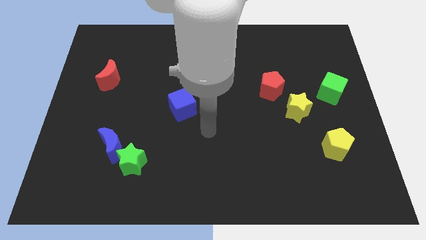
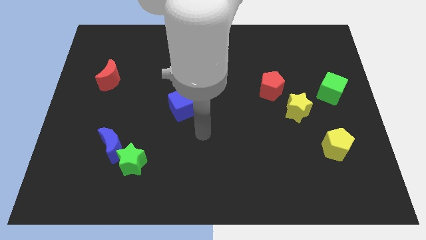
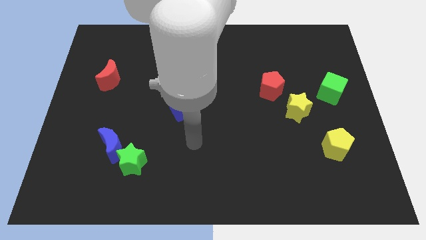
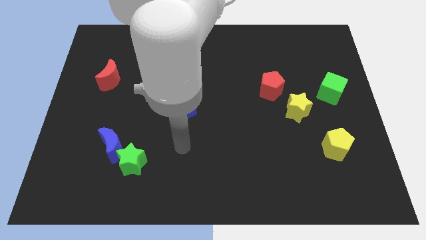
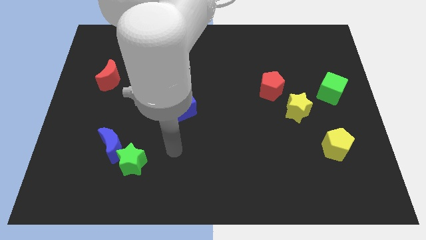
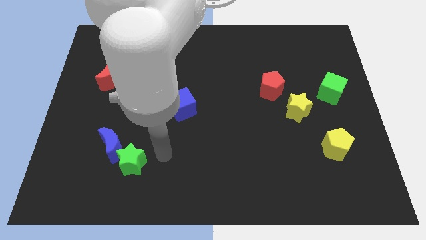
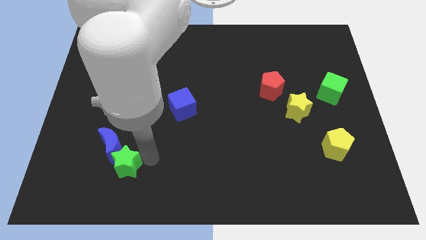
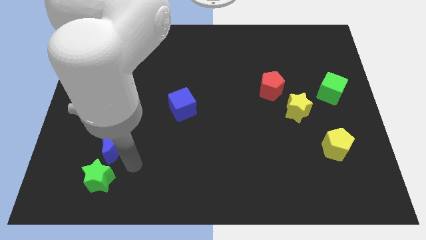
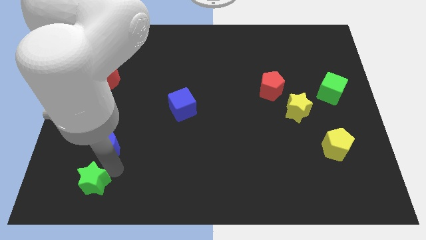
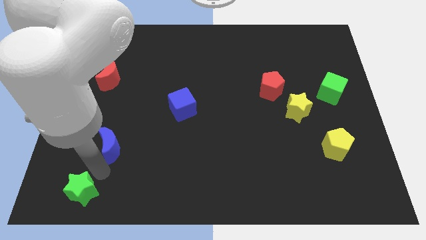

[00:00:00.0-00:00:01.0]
pull the blue moon apart from the green star

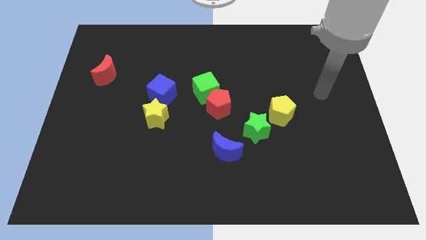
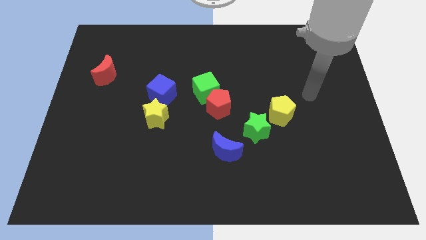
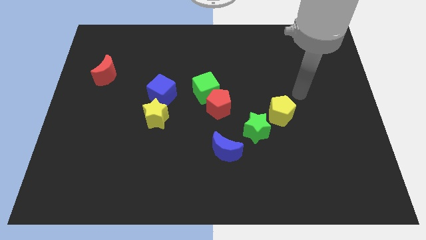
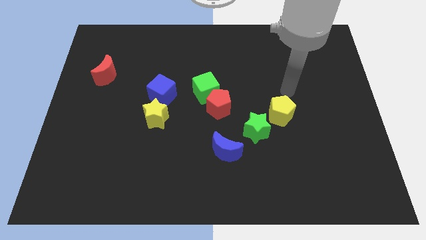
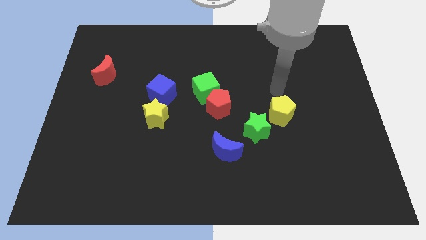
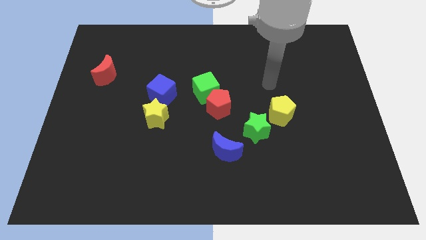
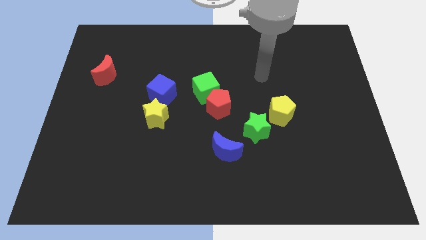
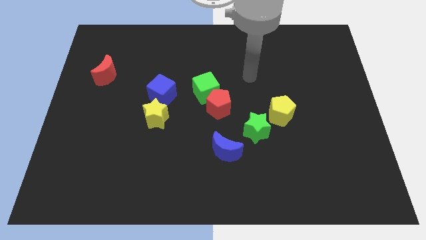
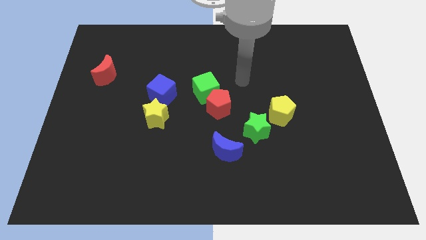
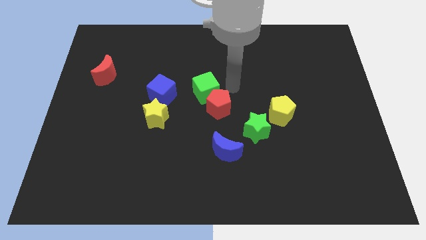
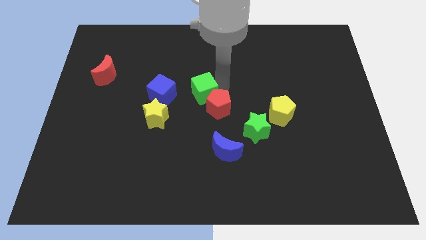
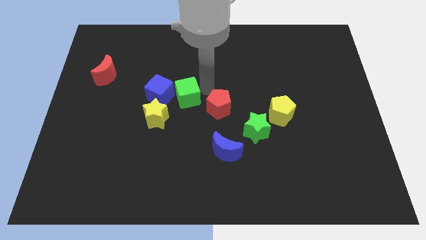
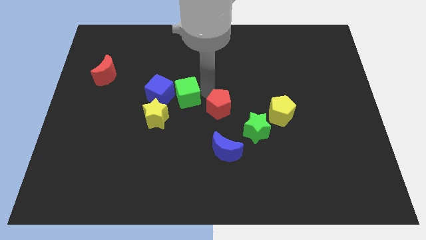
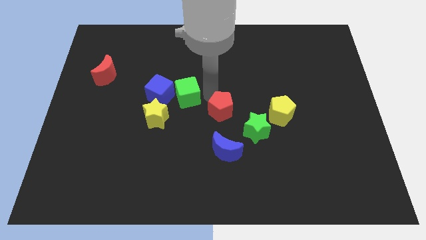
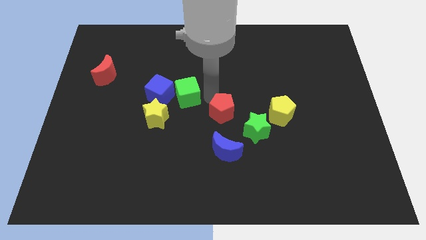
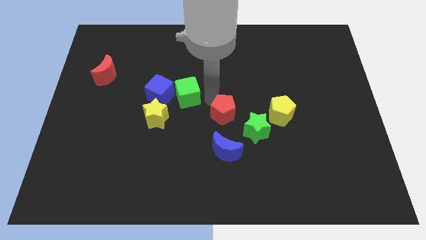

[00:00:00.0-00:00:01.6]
pull the red pentagon apart from the green cube

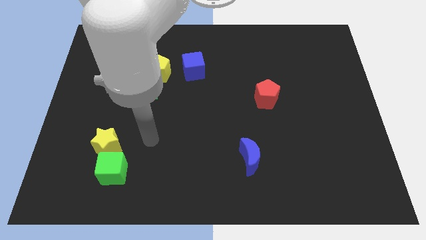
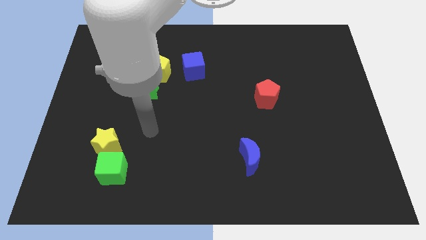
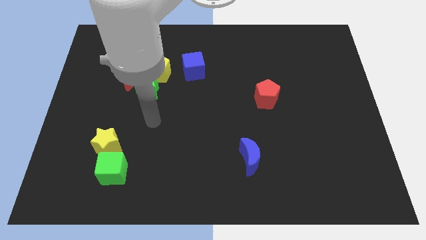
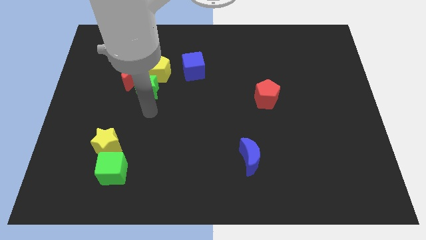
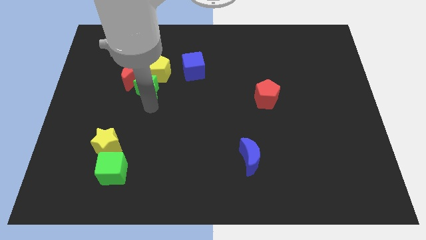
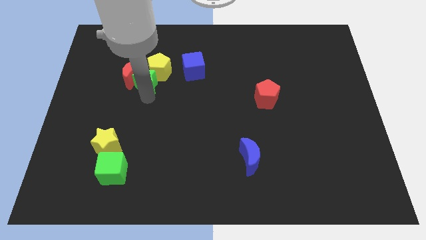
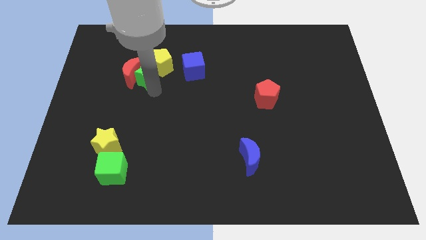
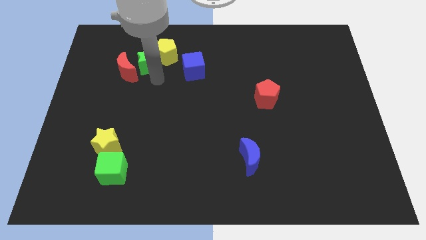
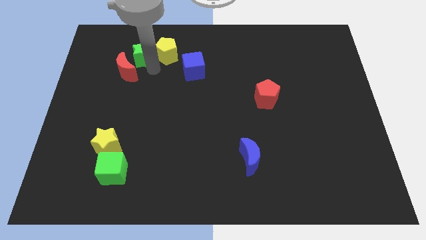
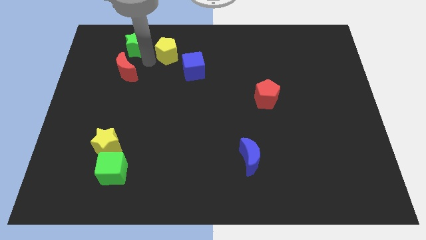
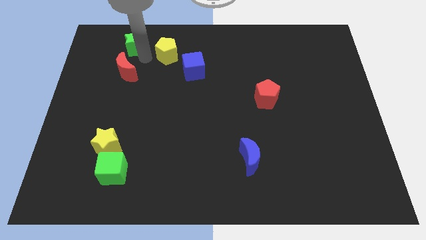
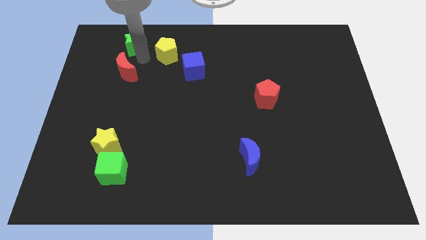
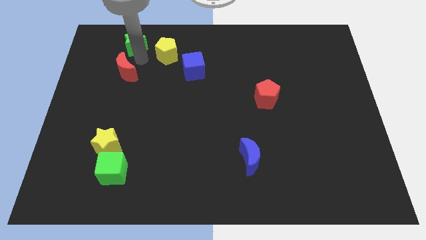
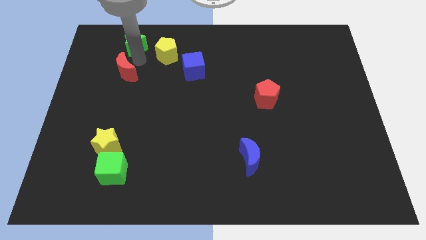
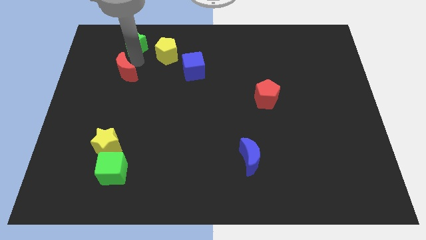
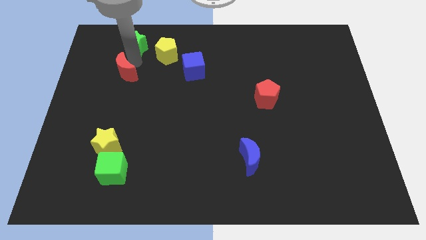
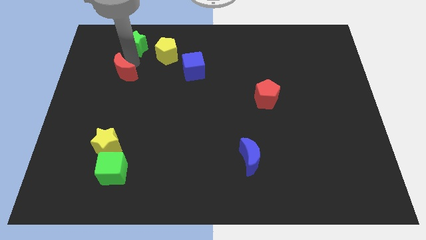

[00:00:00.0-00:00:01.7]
pull the red moon apart from the green star and yellow pentagon

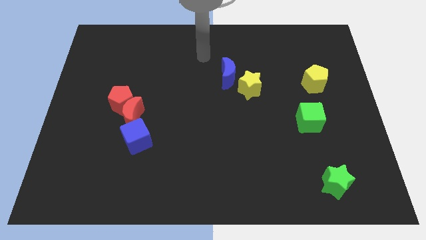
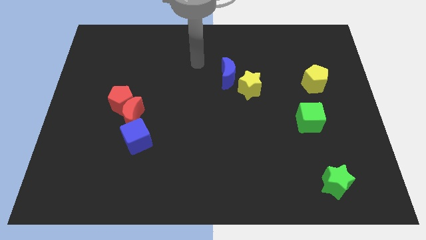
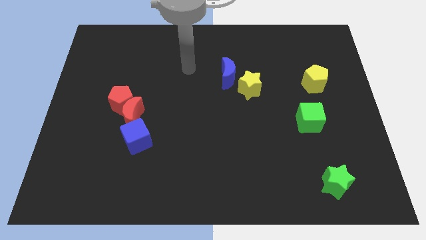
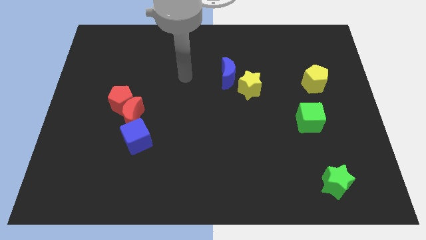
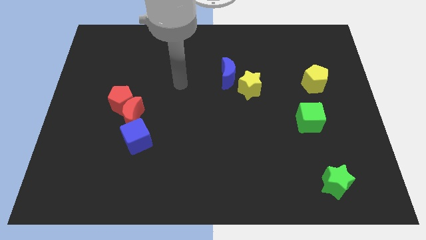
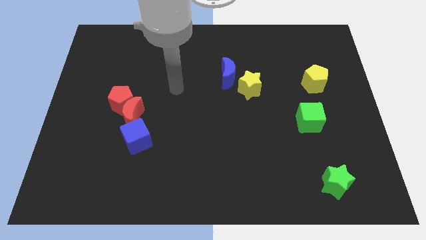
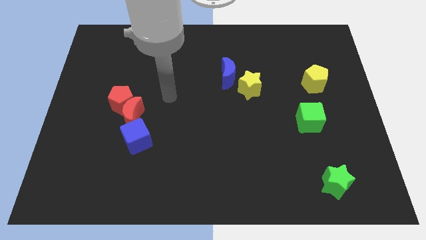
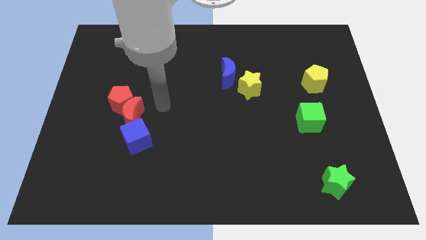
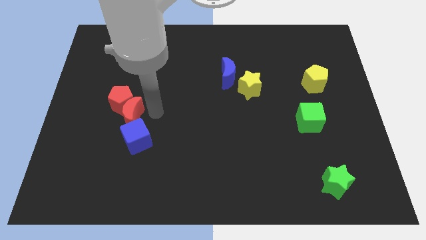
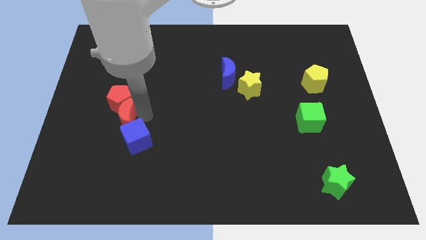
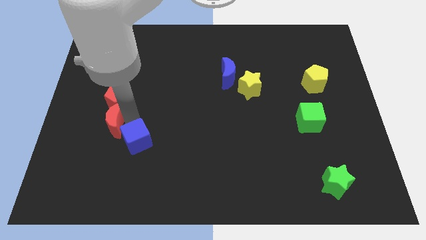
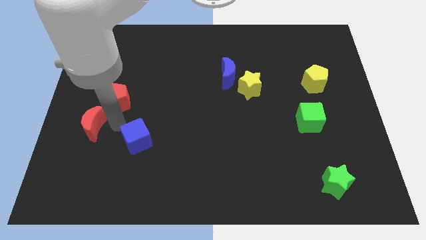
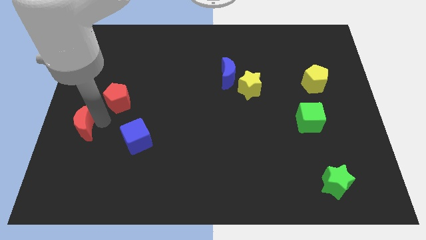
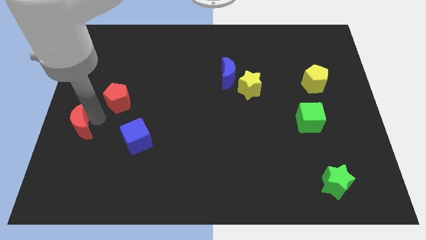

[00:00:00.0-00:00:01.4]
move the red pentagon away from the red moon

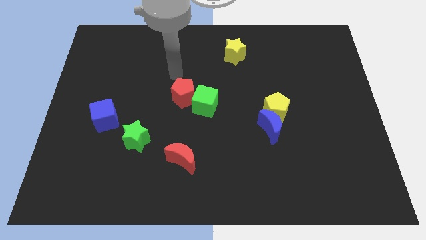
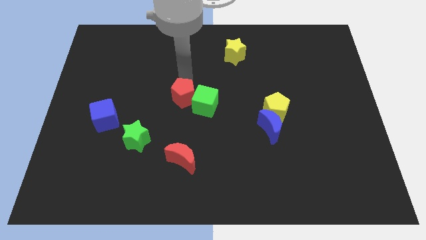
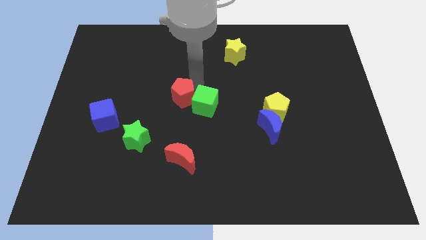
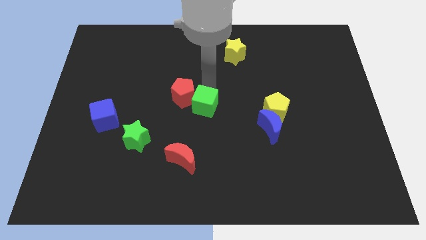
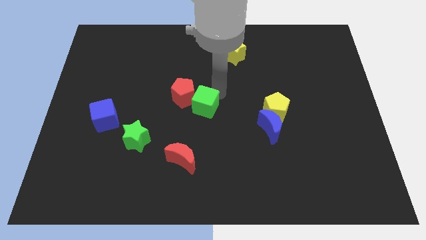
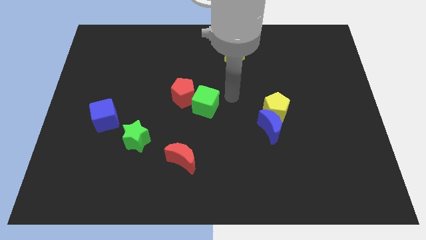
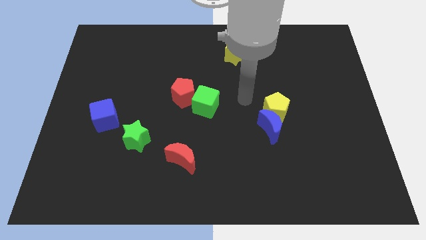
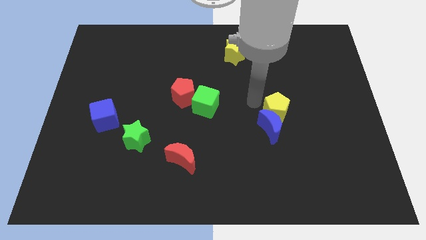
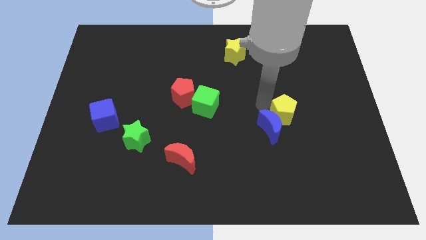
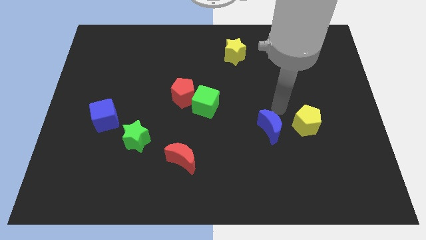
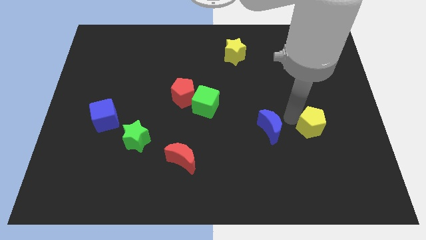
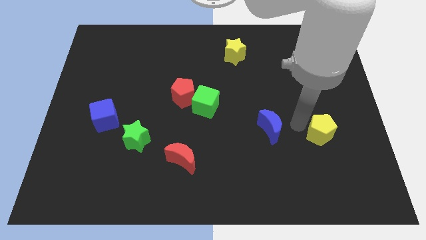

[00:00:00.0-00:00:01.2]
pull the blue moon apart from the yellow pentagon

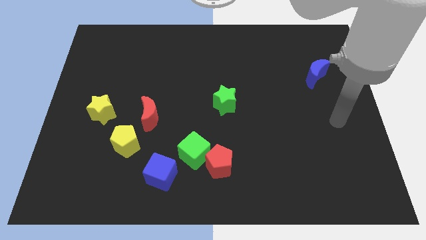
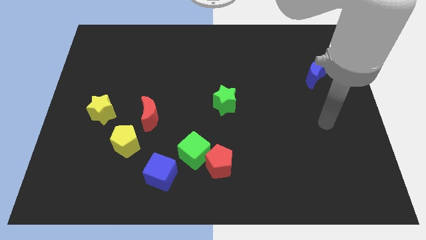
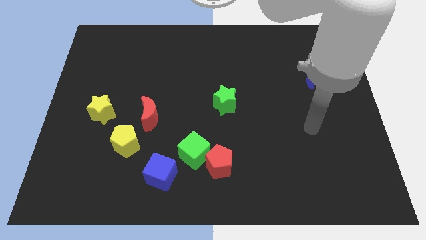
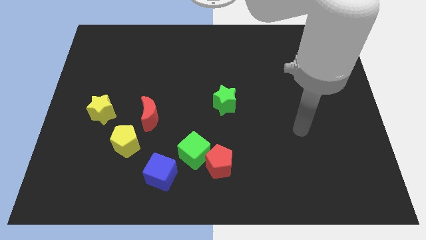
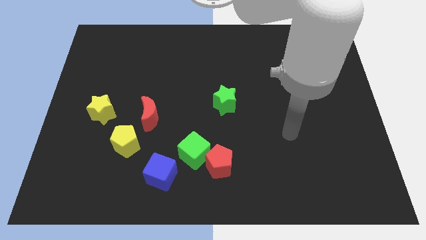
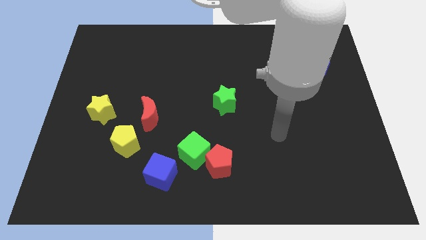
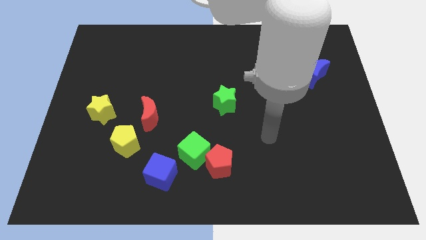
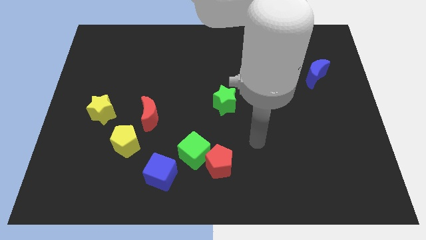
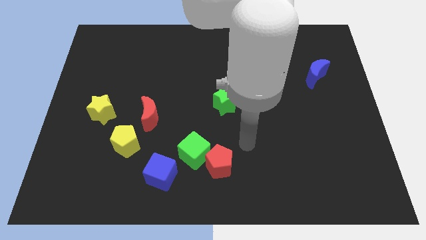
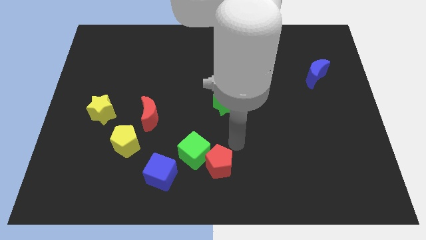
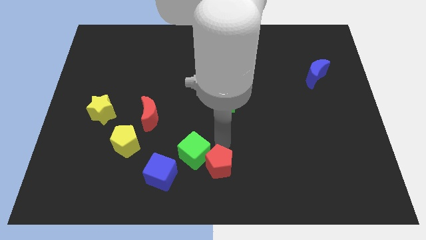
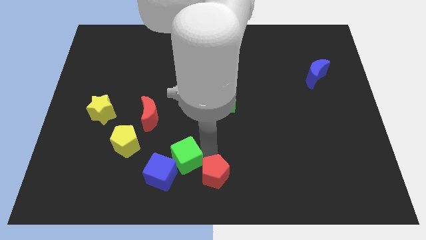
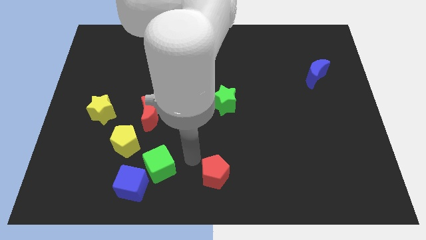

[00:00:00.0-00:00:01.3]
move the red pentagon away from the green cube

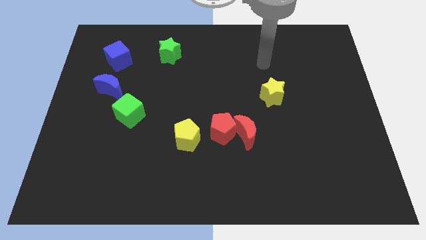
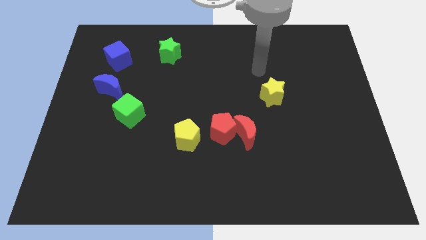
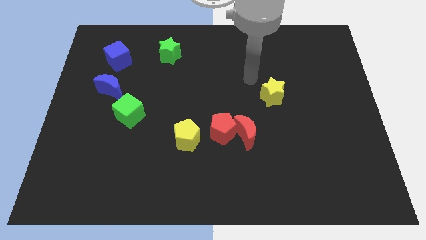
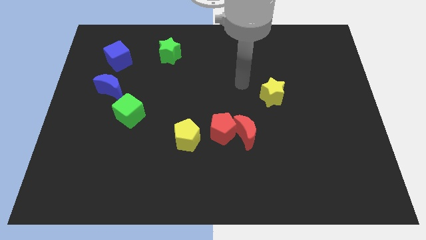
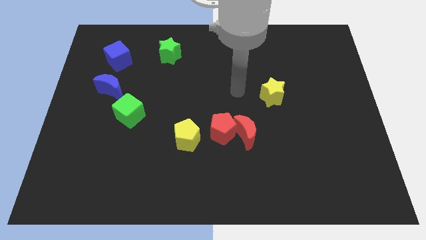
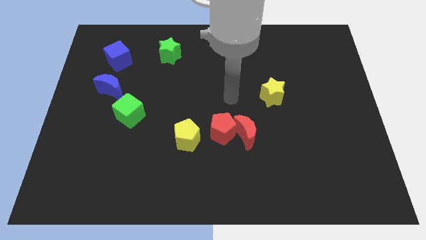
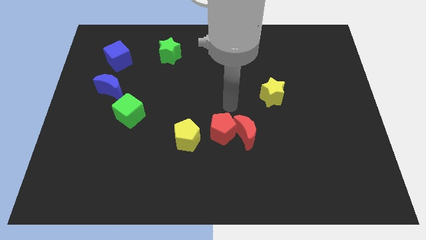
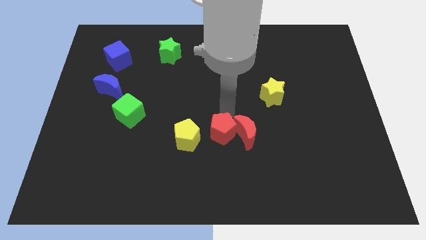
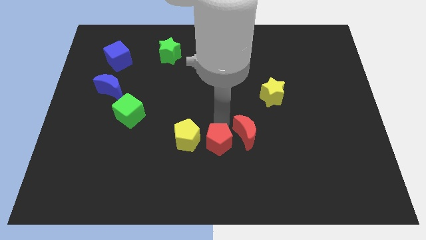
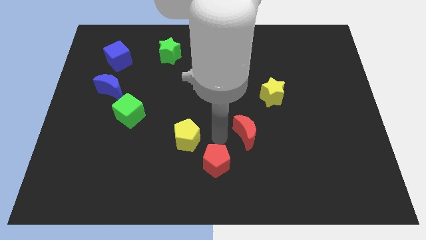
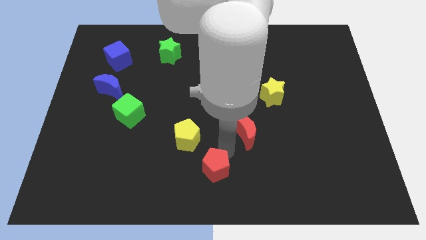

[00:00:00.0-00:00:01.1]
pull the red moon apart from the red pentagon
